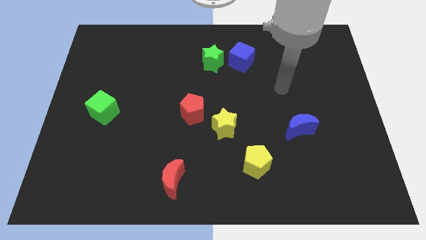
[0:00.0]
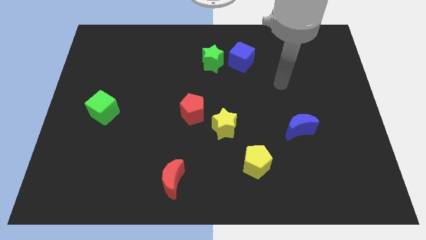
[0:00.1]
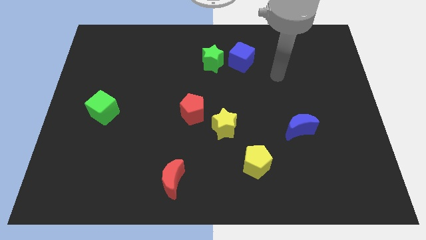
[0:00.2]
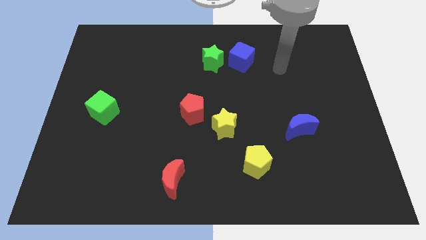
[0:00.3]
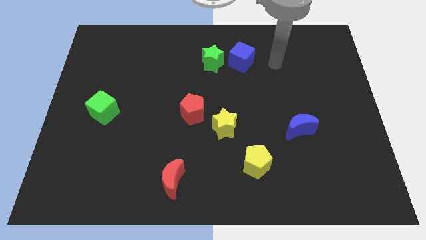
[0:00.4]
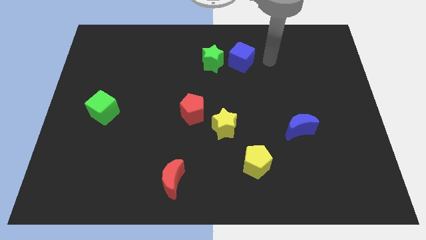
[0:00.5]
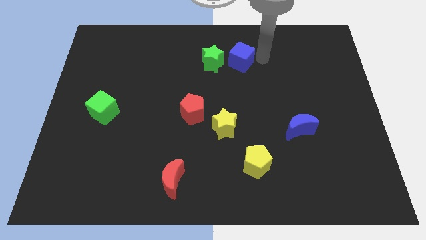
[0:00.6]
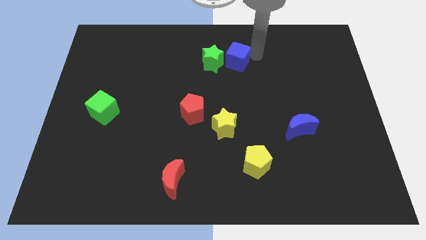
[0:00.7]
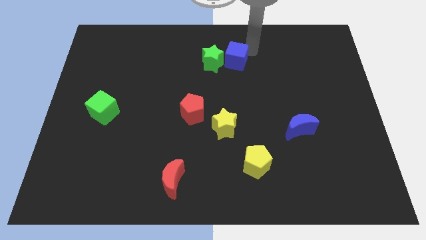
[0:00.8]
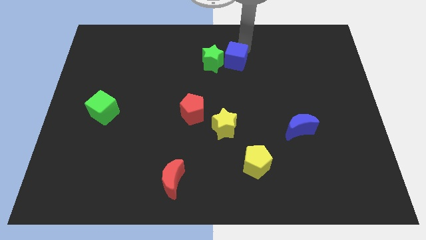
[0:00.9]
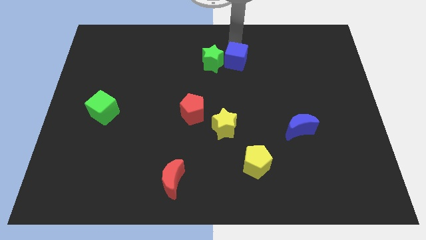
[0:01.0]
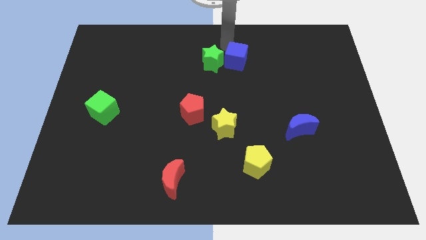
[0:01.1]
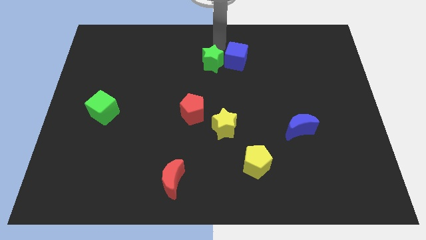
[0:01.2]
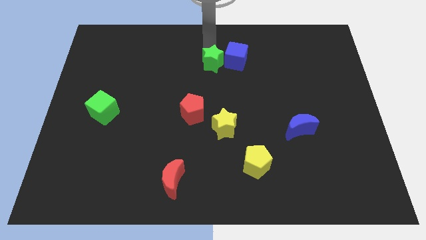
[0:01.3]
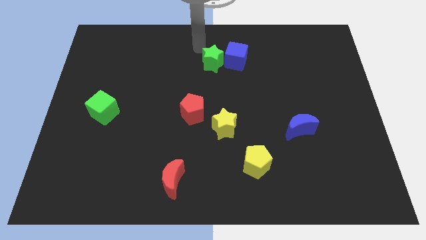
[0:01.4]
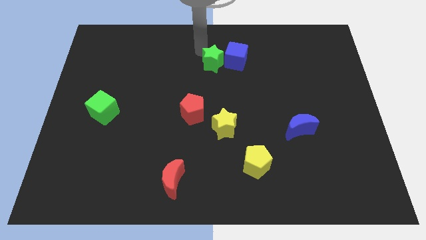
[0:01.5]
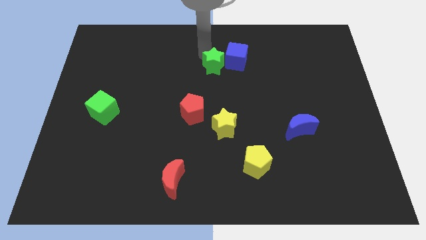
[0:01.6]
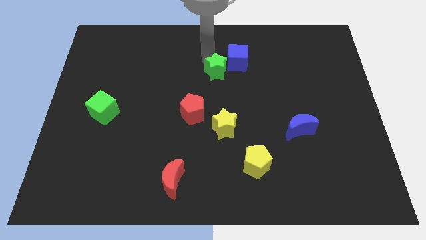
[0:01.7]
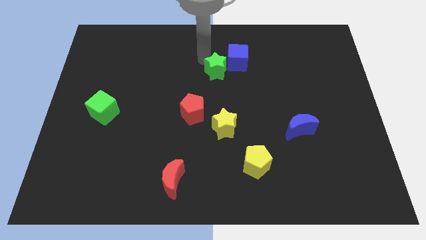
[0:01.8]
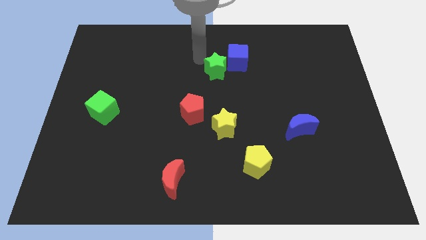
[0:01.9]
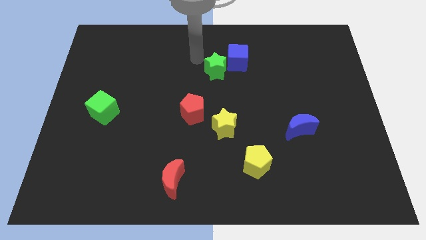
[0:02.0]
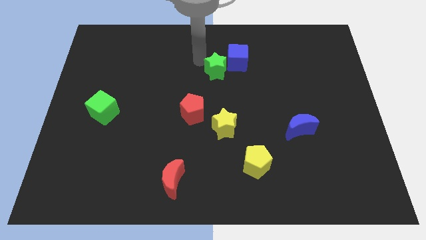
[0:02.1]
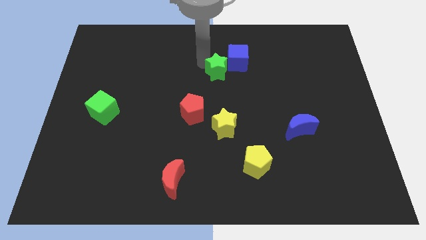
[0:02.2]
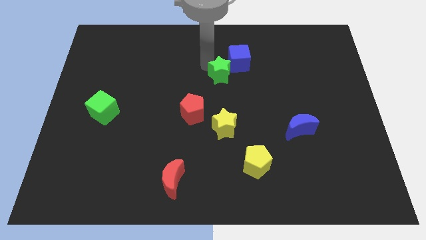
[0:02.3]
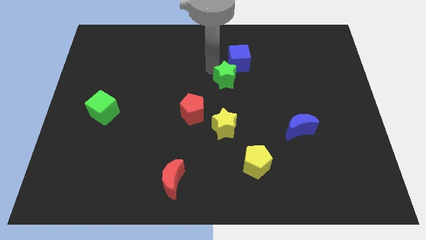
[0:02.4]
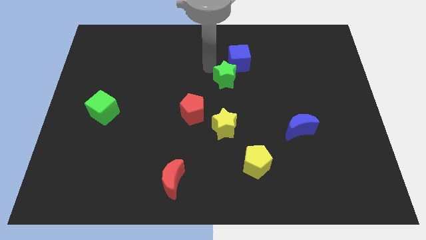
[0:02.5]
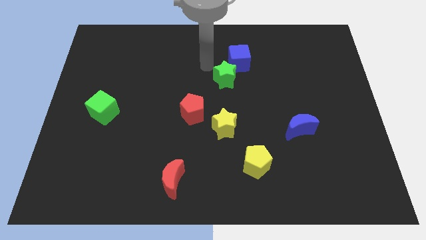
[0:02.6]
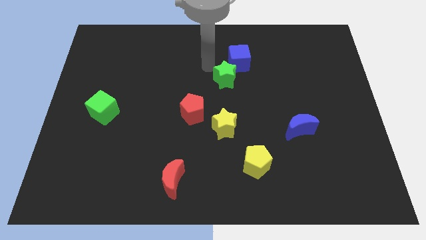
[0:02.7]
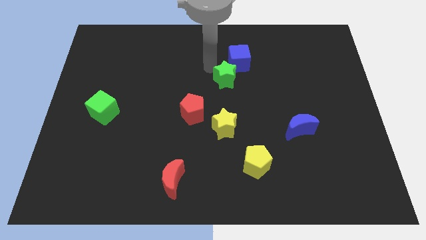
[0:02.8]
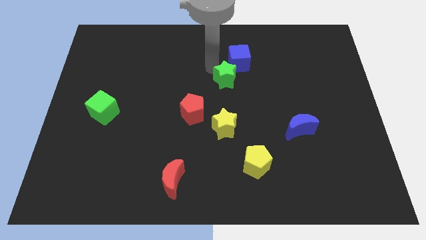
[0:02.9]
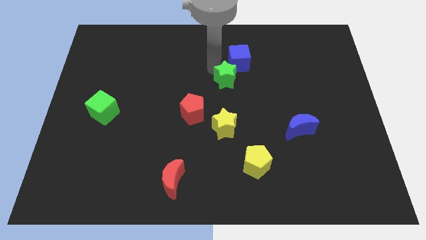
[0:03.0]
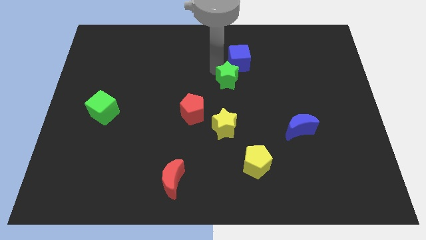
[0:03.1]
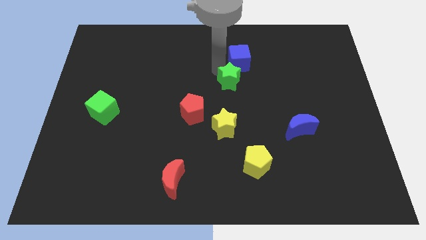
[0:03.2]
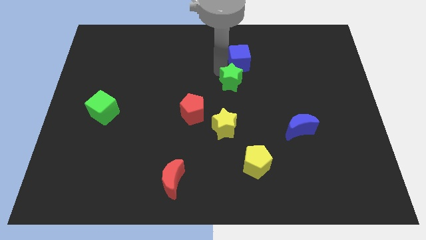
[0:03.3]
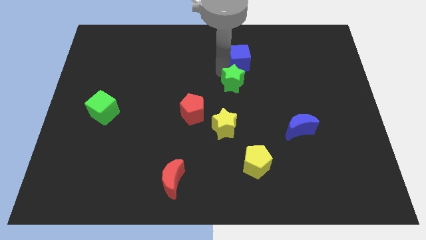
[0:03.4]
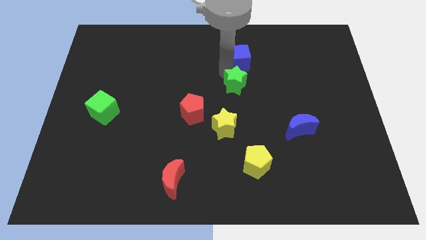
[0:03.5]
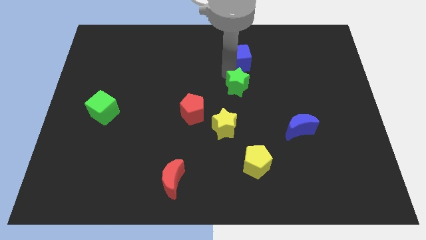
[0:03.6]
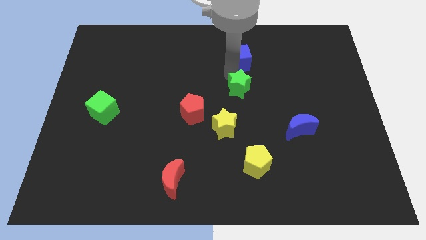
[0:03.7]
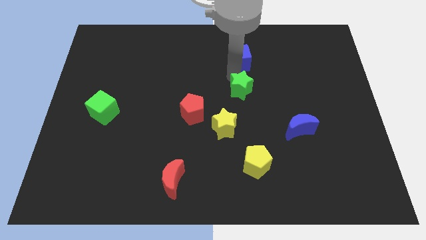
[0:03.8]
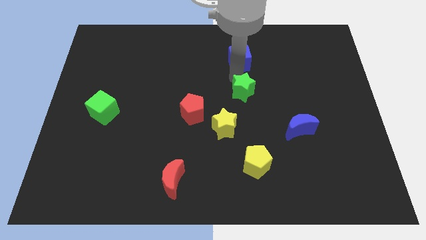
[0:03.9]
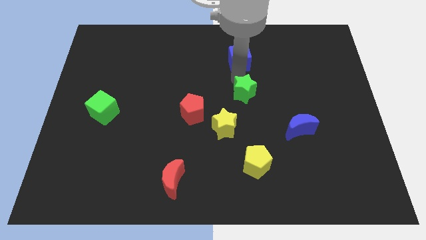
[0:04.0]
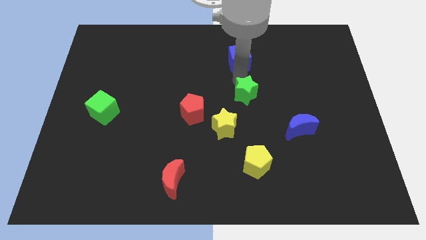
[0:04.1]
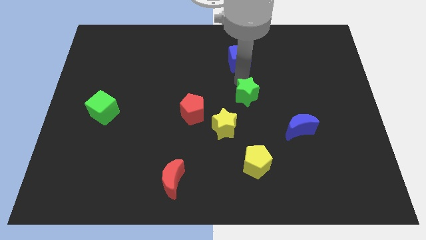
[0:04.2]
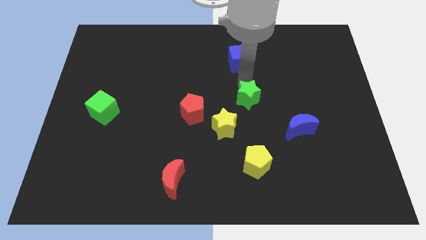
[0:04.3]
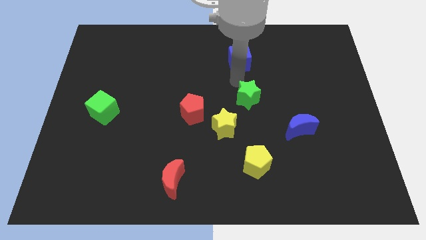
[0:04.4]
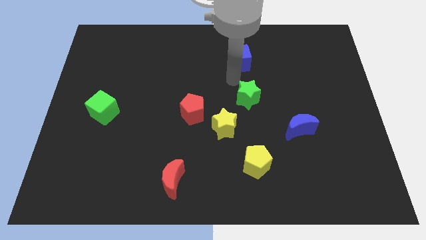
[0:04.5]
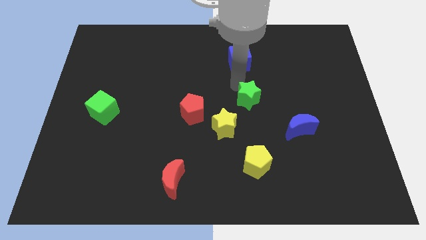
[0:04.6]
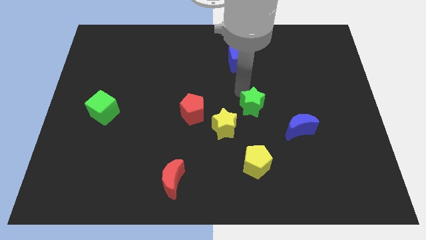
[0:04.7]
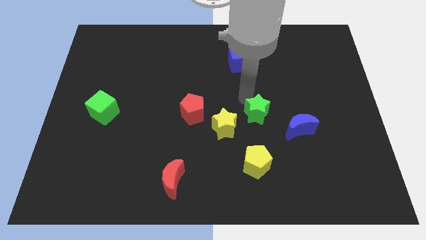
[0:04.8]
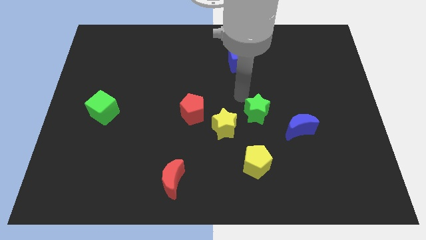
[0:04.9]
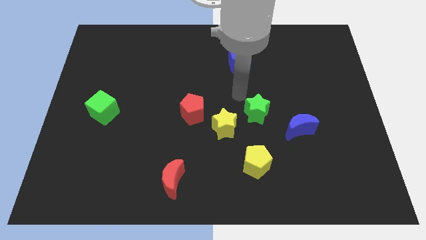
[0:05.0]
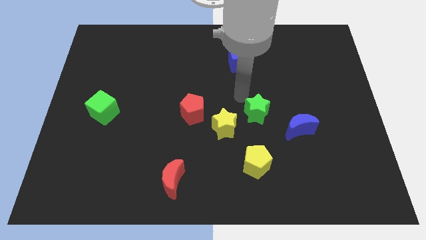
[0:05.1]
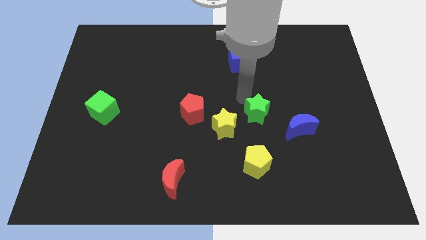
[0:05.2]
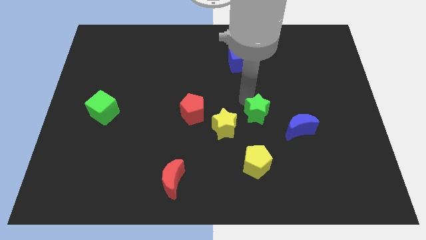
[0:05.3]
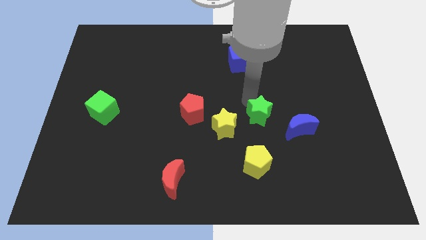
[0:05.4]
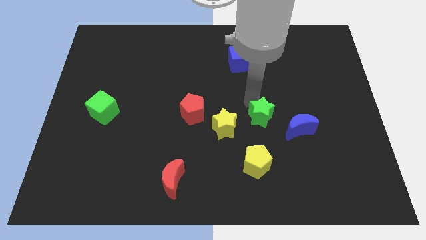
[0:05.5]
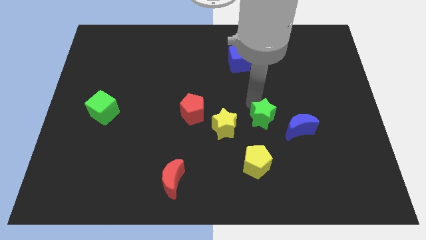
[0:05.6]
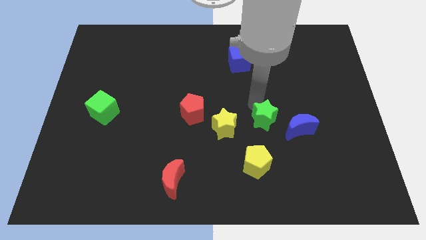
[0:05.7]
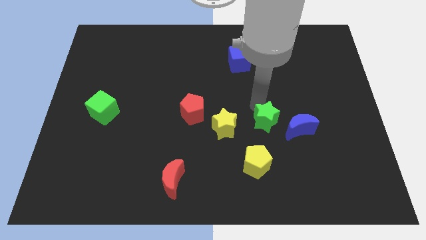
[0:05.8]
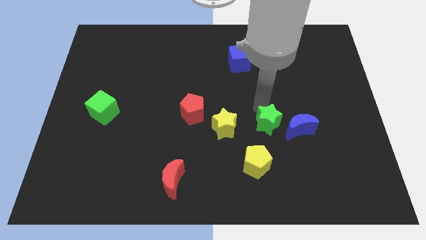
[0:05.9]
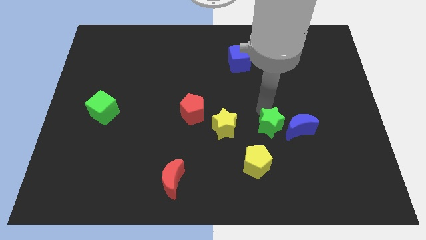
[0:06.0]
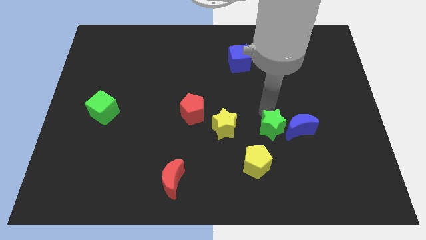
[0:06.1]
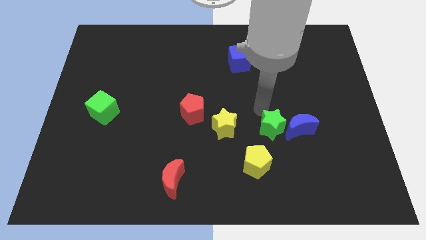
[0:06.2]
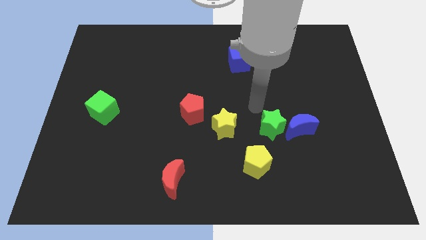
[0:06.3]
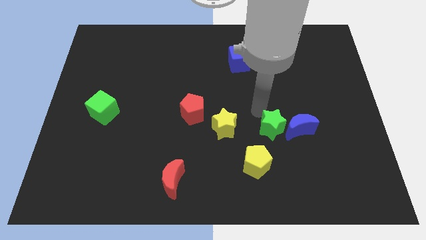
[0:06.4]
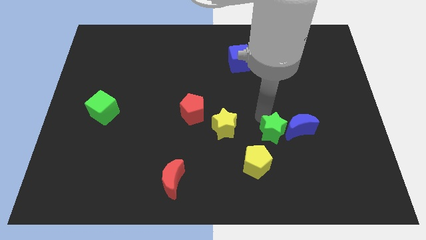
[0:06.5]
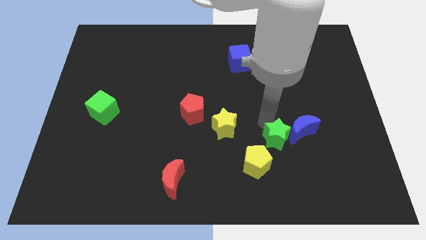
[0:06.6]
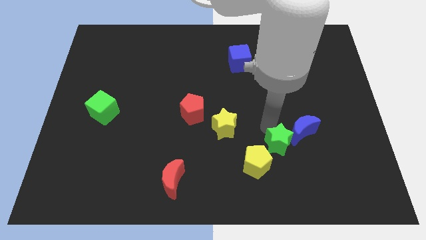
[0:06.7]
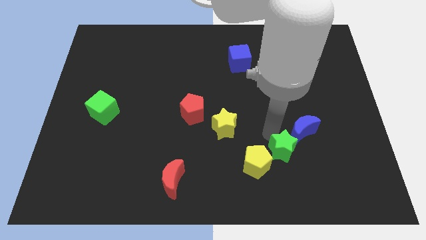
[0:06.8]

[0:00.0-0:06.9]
slide the green star to the right side of the yellow pentagon
